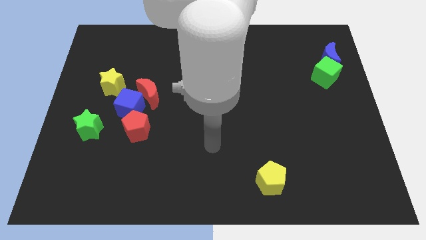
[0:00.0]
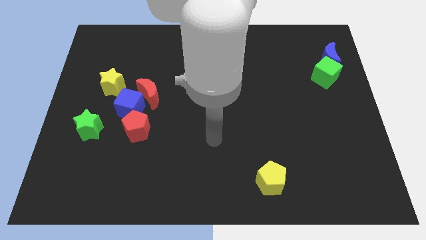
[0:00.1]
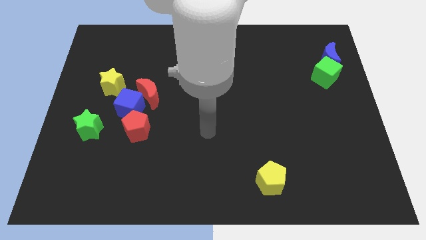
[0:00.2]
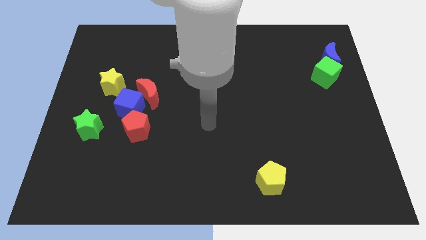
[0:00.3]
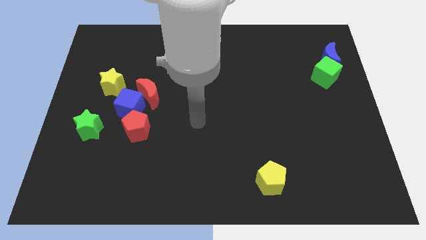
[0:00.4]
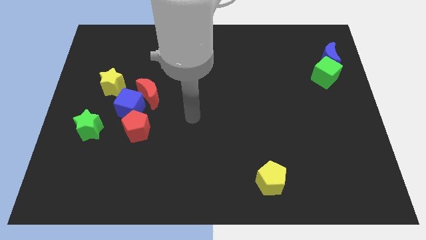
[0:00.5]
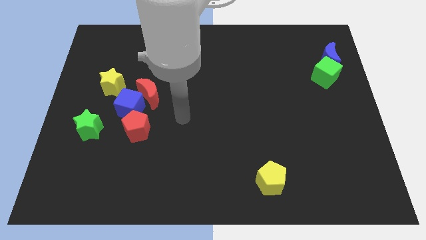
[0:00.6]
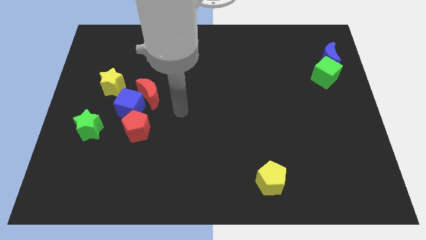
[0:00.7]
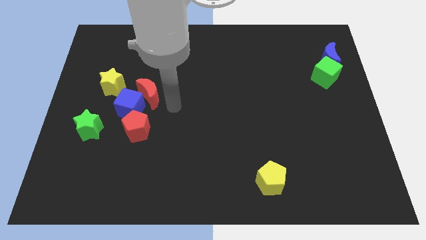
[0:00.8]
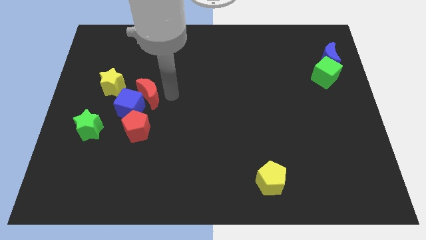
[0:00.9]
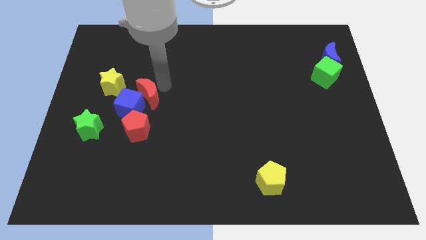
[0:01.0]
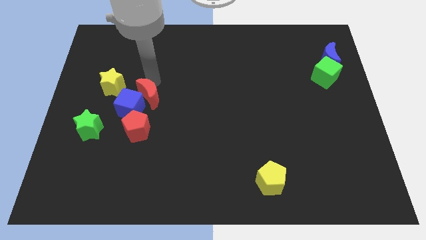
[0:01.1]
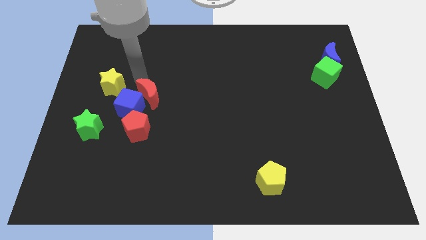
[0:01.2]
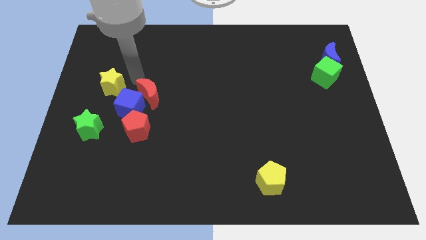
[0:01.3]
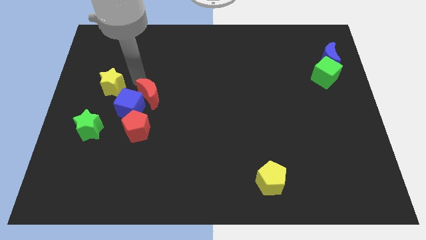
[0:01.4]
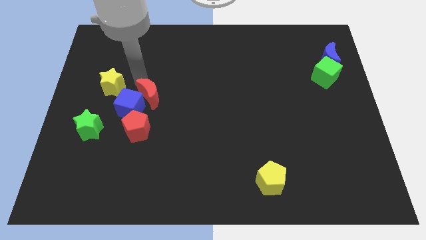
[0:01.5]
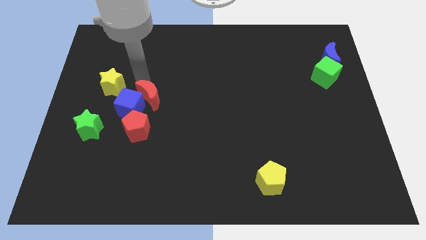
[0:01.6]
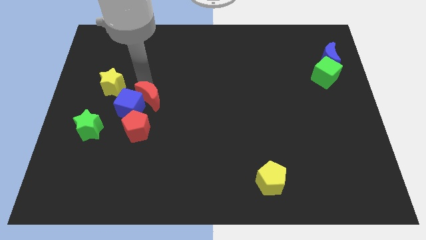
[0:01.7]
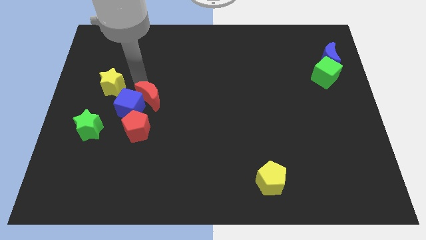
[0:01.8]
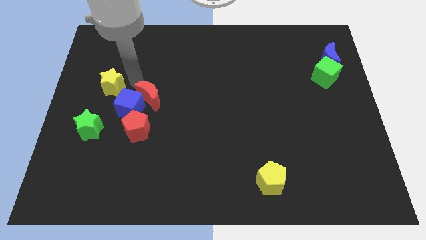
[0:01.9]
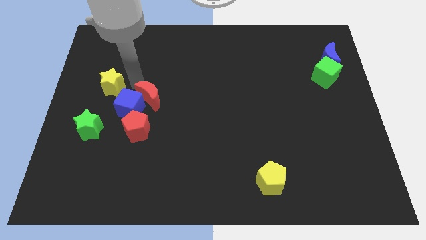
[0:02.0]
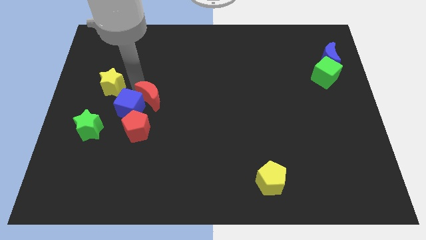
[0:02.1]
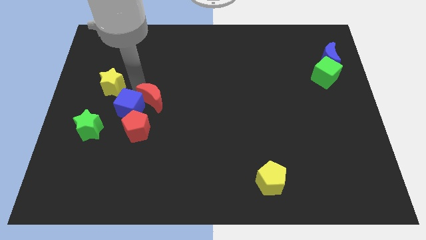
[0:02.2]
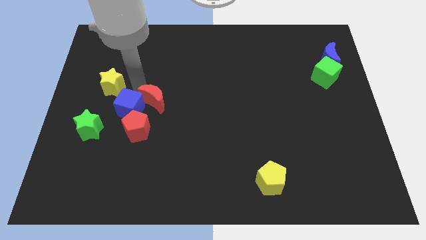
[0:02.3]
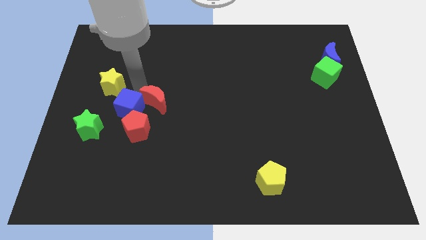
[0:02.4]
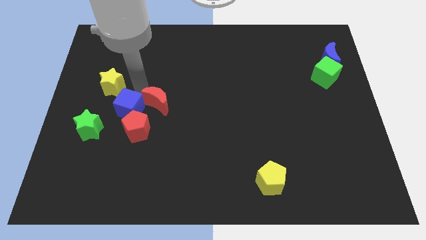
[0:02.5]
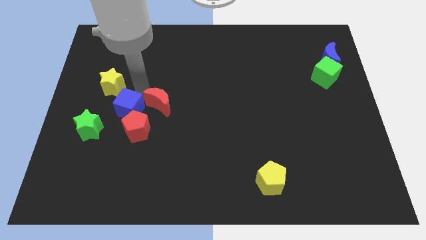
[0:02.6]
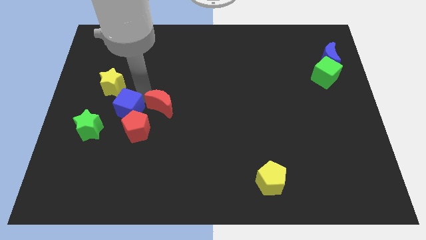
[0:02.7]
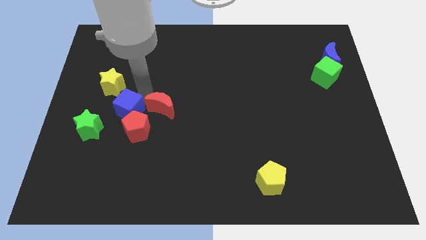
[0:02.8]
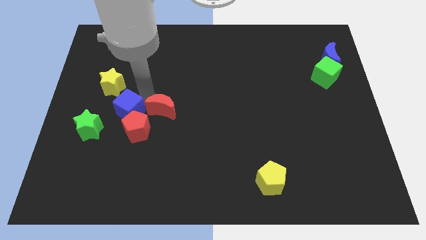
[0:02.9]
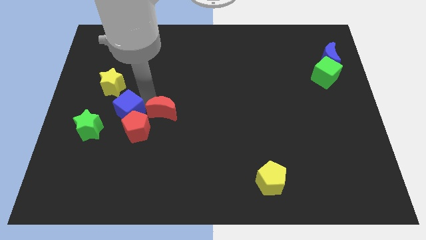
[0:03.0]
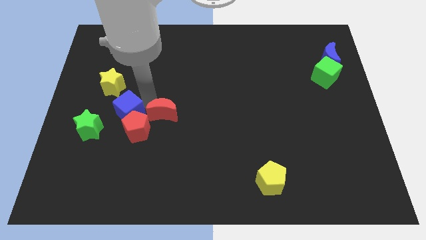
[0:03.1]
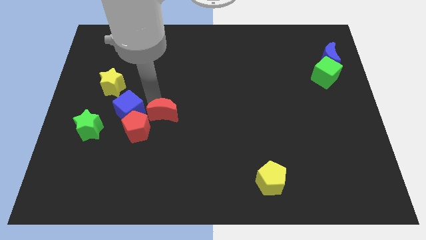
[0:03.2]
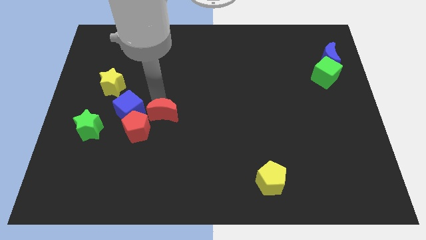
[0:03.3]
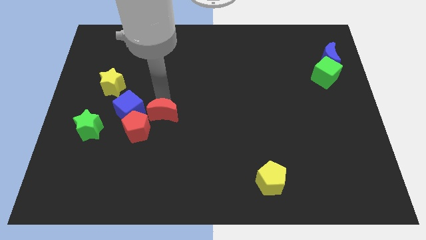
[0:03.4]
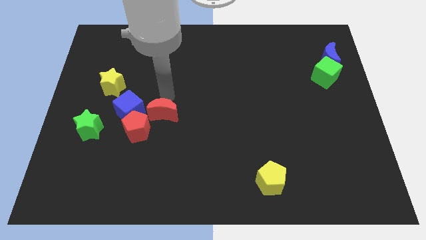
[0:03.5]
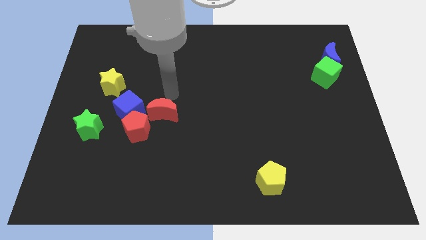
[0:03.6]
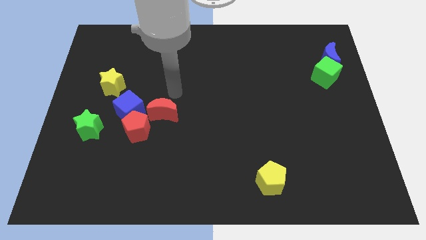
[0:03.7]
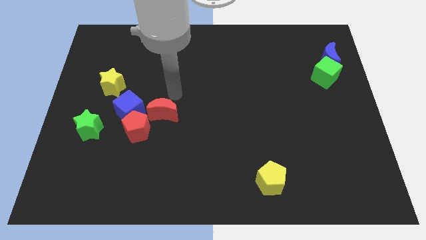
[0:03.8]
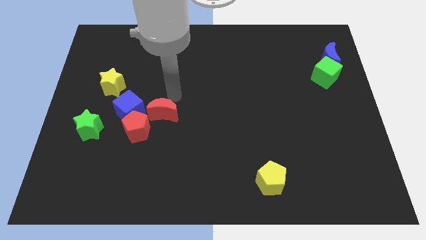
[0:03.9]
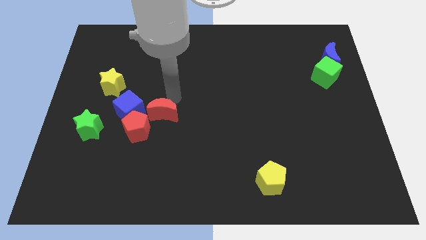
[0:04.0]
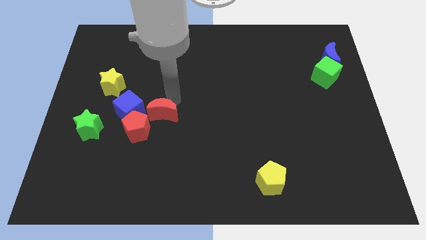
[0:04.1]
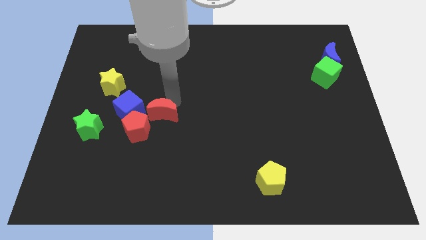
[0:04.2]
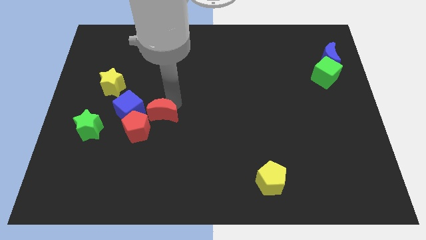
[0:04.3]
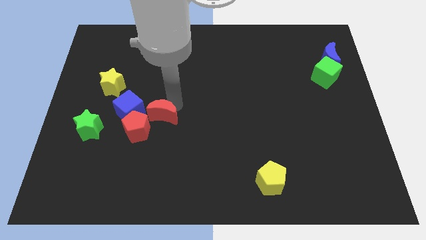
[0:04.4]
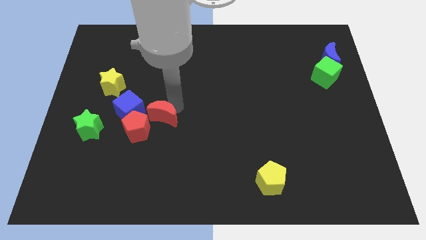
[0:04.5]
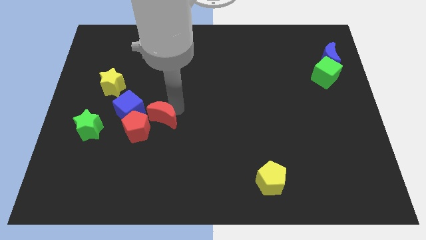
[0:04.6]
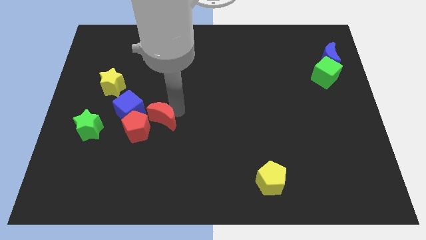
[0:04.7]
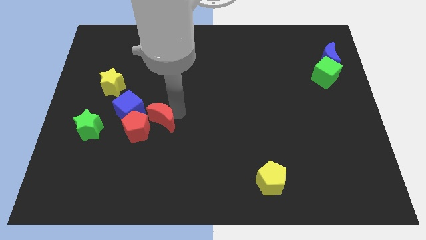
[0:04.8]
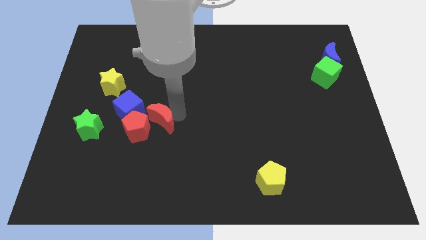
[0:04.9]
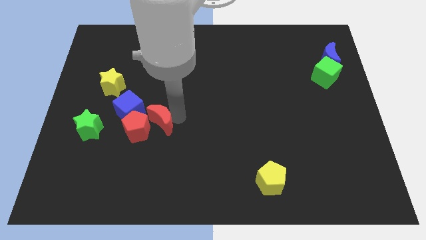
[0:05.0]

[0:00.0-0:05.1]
put the red moon right of the green star
